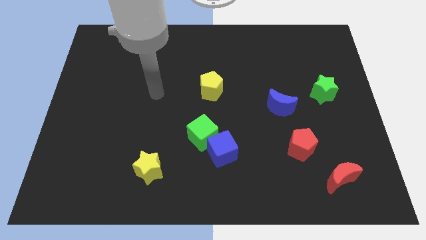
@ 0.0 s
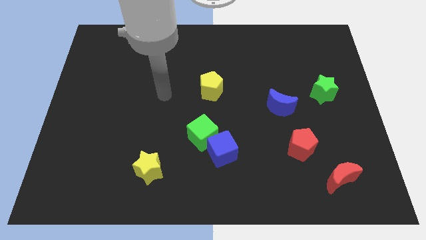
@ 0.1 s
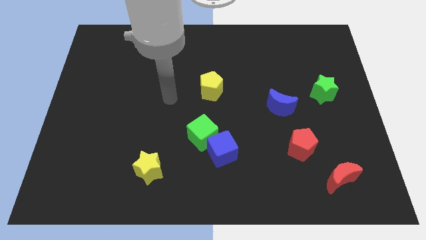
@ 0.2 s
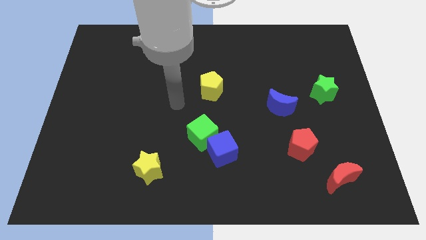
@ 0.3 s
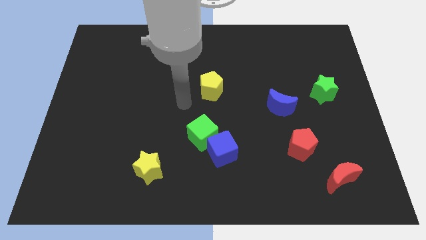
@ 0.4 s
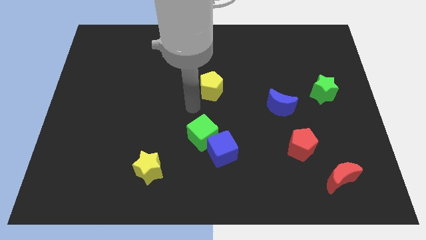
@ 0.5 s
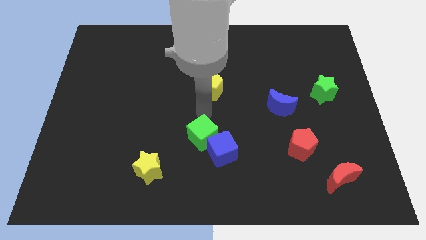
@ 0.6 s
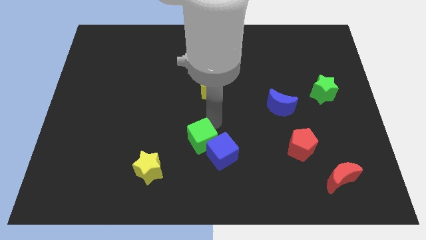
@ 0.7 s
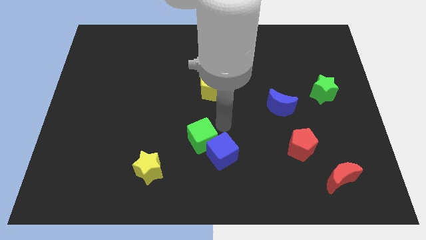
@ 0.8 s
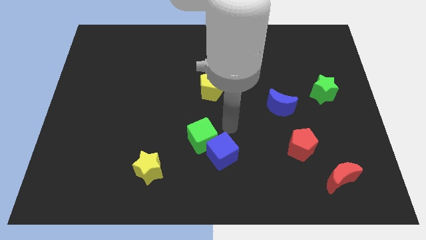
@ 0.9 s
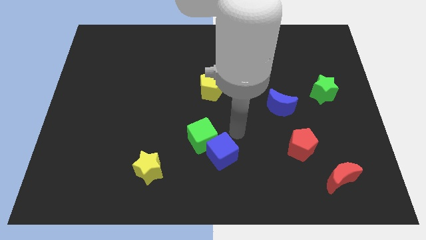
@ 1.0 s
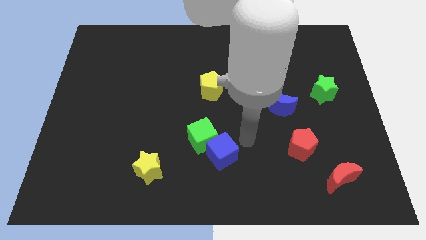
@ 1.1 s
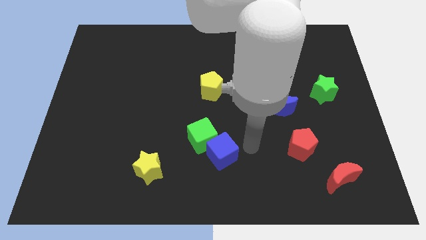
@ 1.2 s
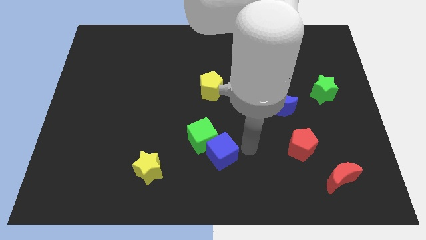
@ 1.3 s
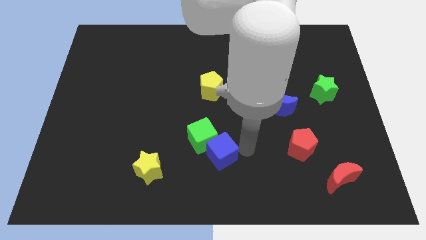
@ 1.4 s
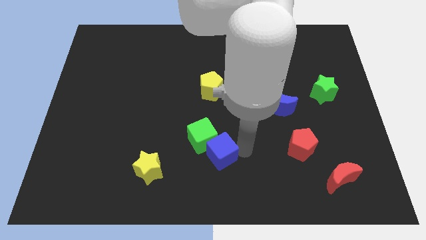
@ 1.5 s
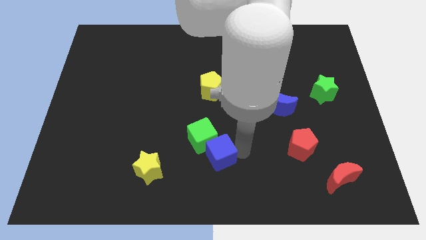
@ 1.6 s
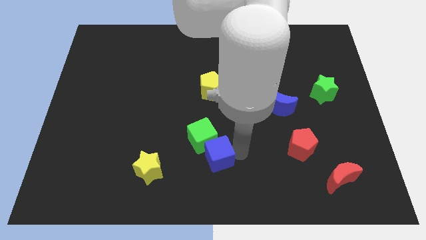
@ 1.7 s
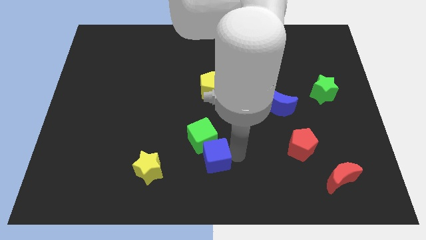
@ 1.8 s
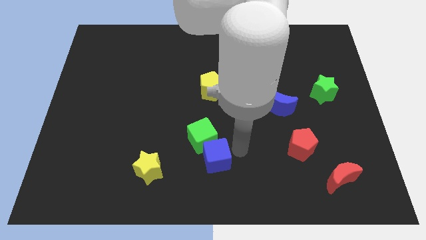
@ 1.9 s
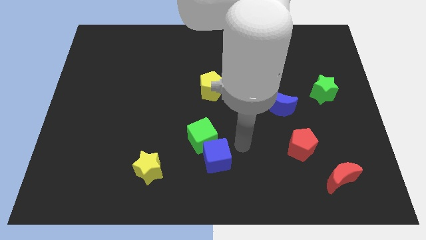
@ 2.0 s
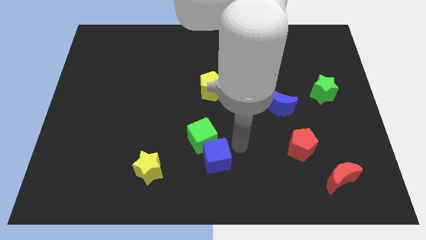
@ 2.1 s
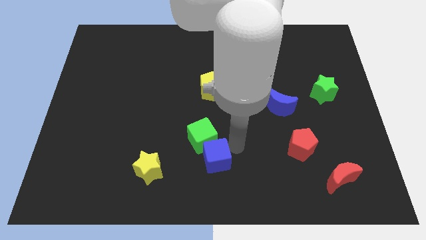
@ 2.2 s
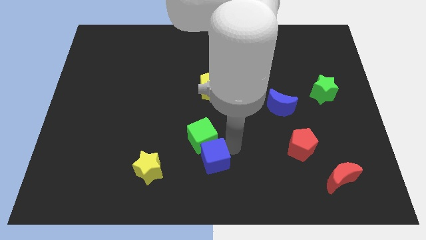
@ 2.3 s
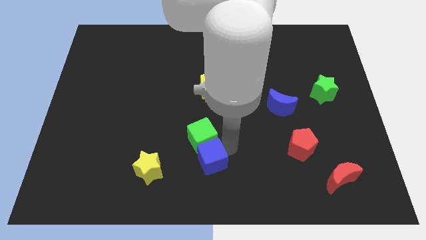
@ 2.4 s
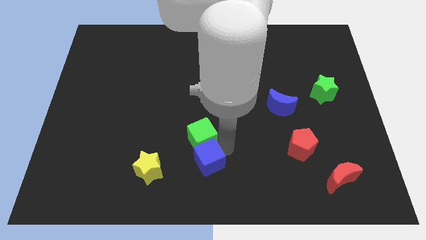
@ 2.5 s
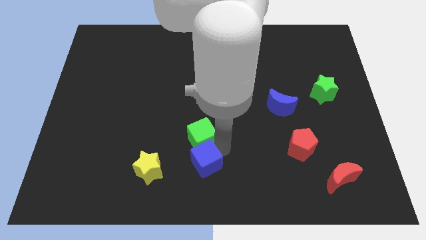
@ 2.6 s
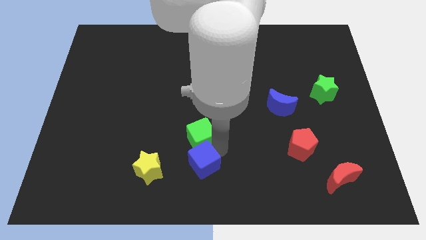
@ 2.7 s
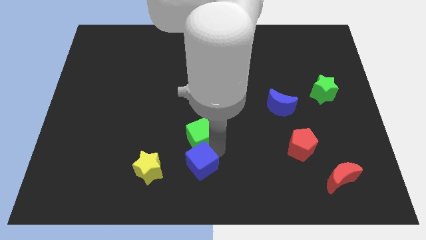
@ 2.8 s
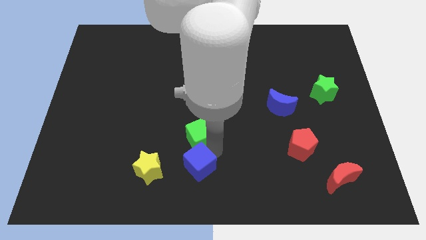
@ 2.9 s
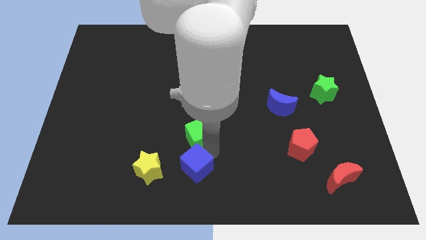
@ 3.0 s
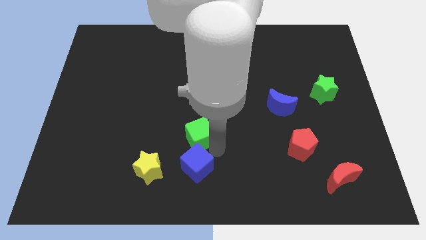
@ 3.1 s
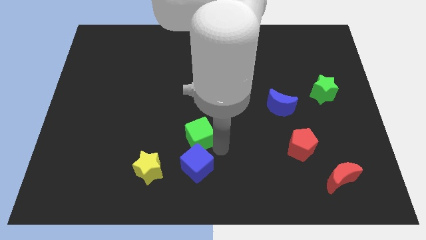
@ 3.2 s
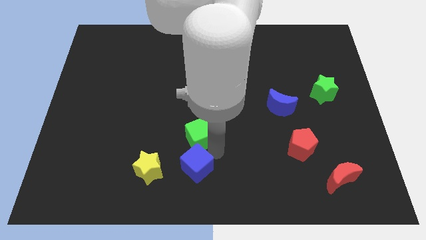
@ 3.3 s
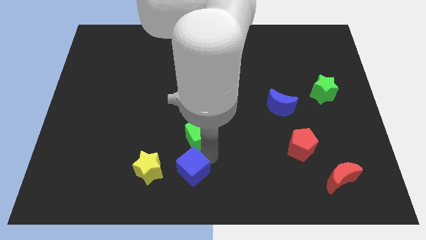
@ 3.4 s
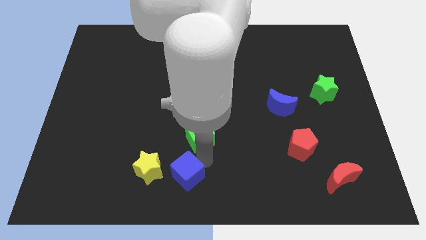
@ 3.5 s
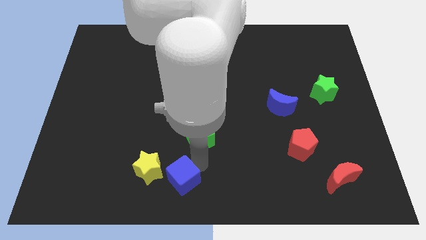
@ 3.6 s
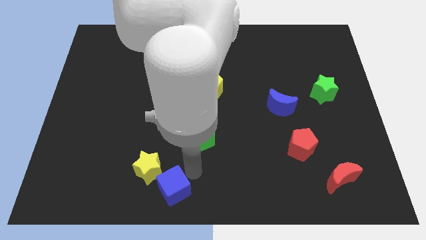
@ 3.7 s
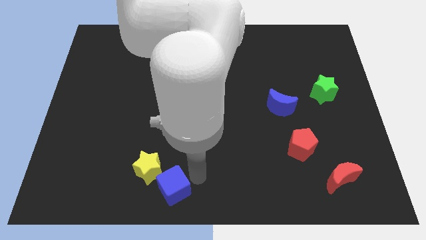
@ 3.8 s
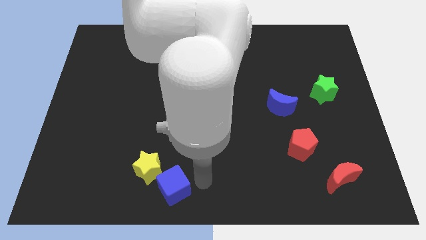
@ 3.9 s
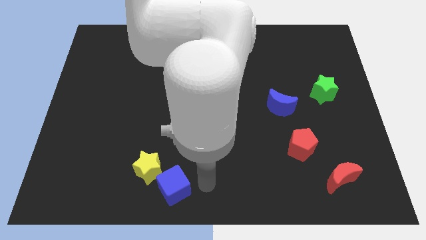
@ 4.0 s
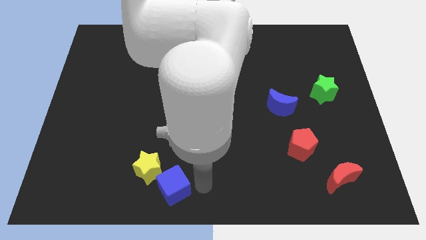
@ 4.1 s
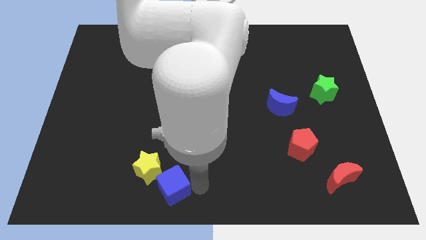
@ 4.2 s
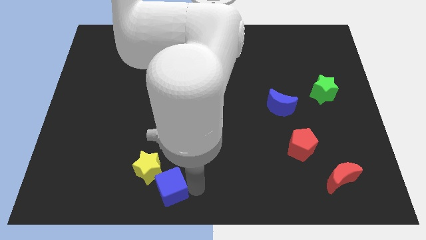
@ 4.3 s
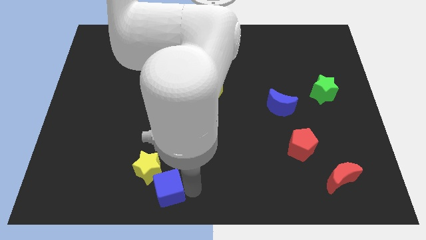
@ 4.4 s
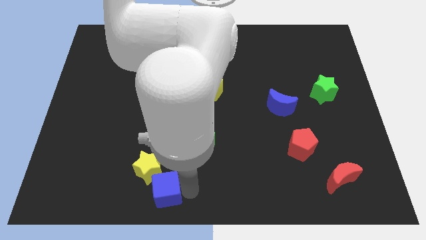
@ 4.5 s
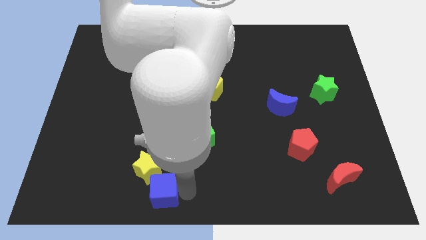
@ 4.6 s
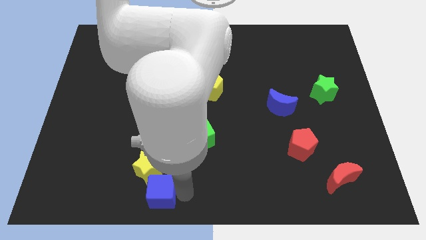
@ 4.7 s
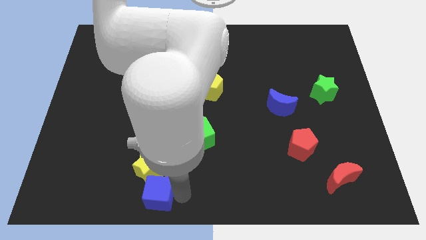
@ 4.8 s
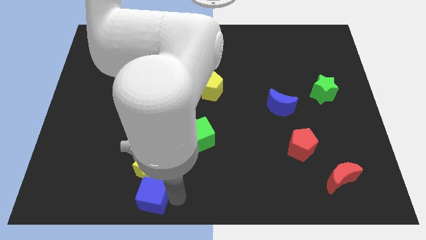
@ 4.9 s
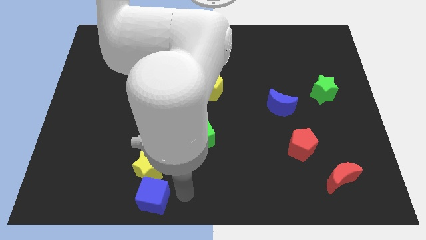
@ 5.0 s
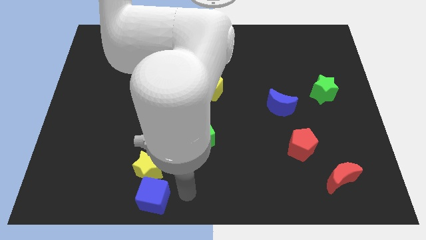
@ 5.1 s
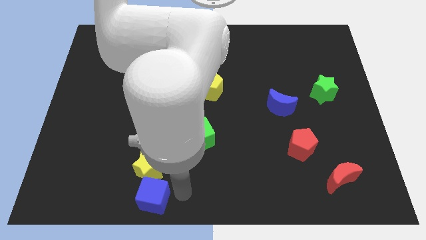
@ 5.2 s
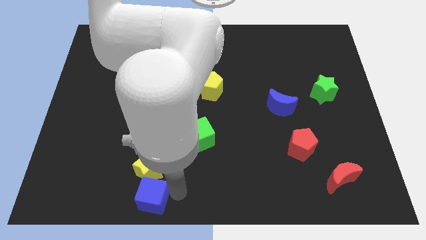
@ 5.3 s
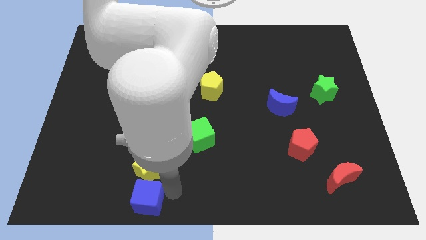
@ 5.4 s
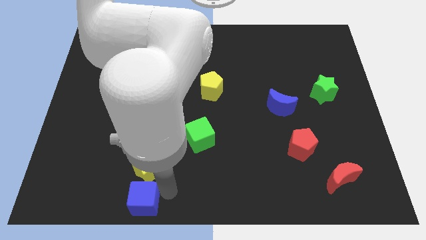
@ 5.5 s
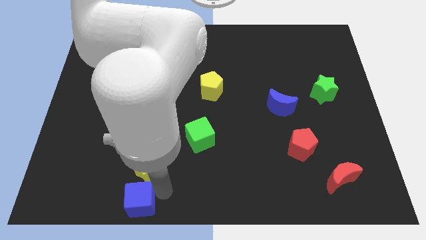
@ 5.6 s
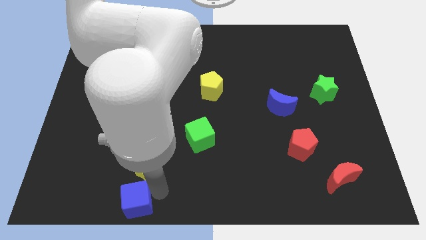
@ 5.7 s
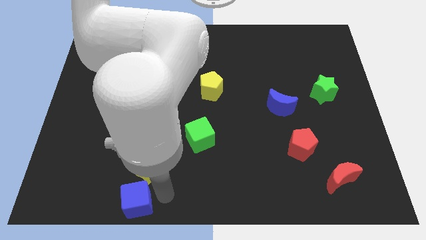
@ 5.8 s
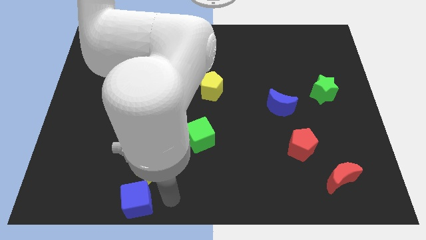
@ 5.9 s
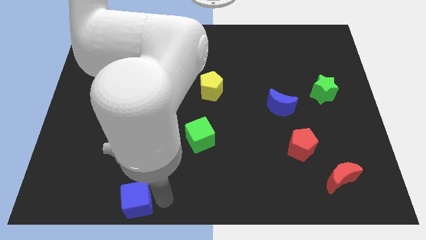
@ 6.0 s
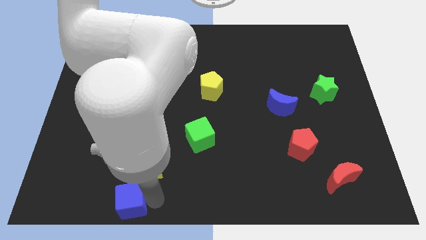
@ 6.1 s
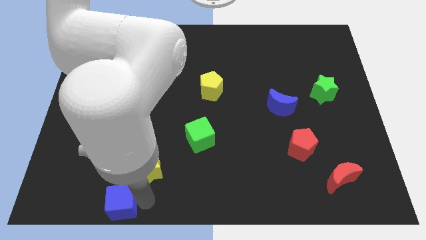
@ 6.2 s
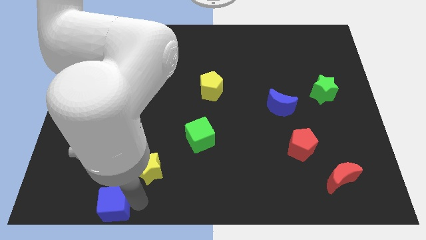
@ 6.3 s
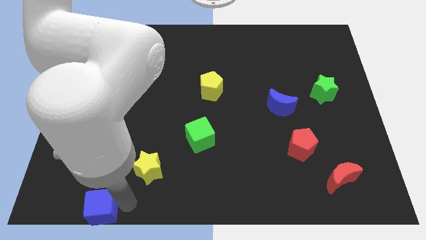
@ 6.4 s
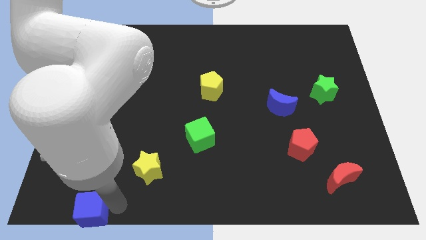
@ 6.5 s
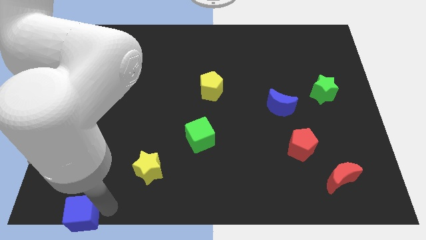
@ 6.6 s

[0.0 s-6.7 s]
push the blue cube to the lower left corner
